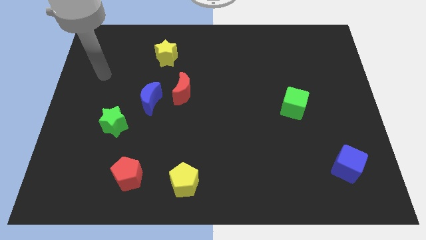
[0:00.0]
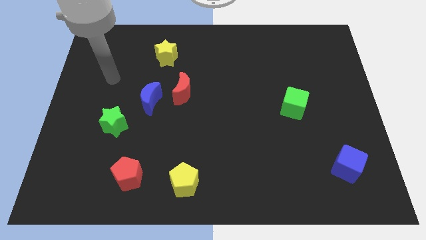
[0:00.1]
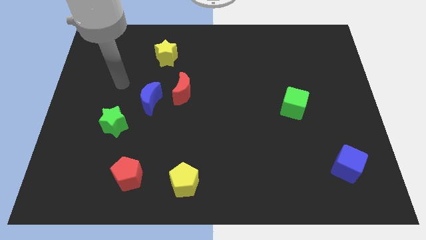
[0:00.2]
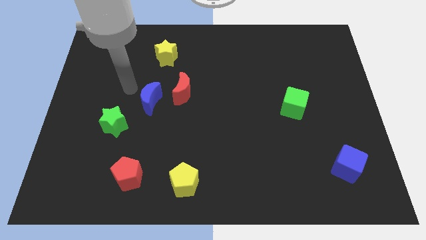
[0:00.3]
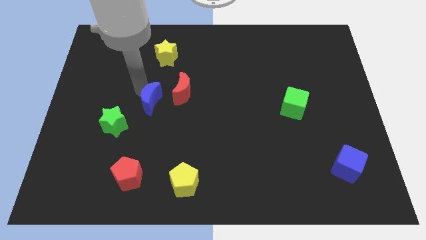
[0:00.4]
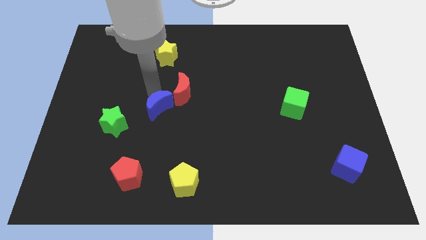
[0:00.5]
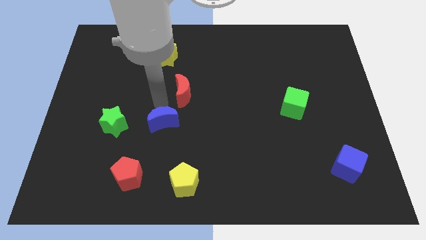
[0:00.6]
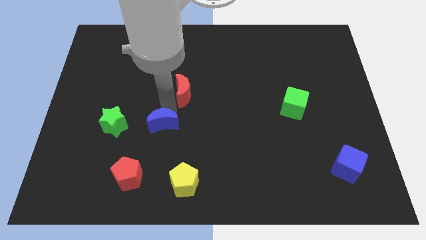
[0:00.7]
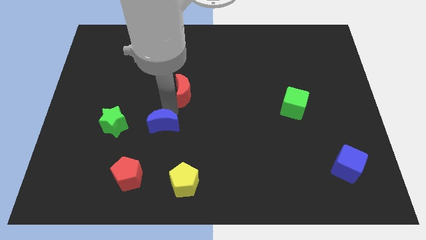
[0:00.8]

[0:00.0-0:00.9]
move the red moon away from the blue moon

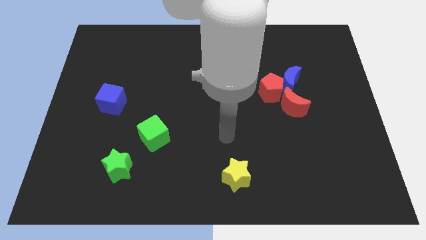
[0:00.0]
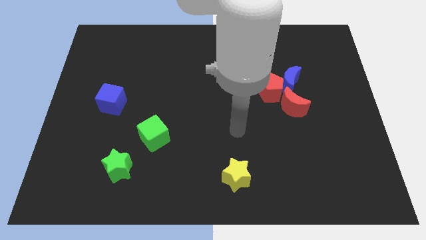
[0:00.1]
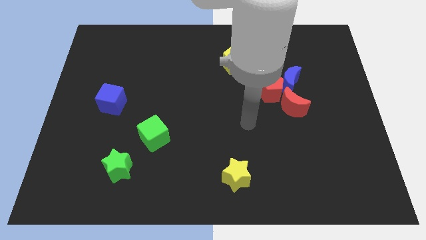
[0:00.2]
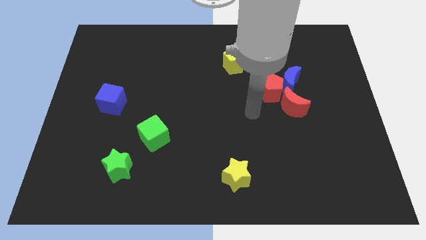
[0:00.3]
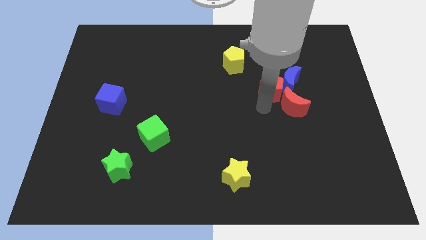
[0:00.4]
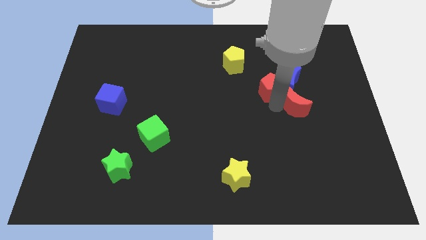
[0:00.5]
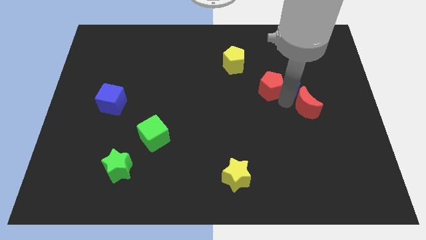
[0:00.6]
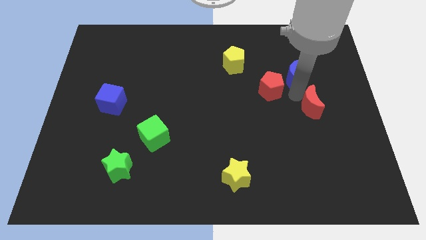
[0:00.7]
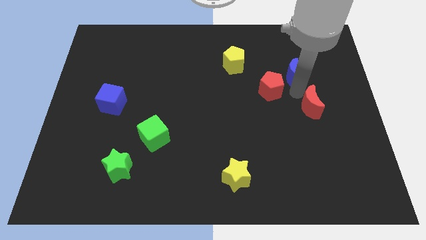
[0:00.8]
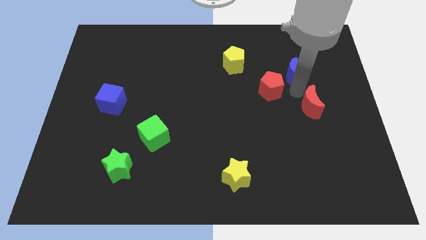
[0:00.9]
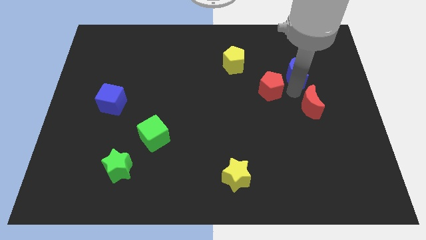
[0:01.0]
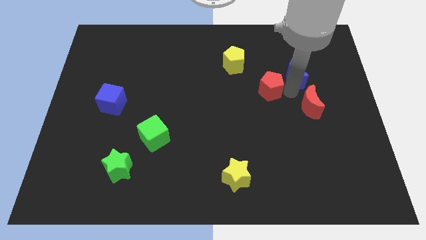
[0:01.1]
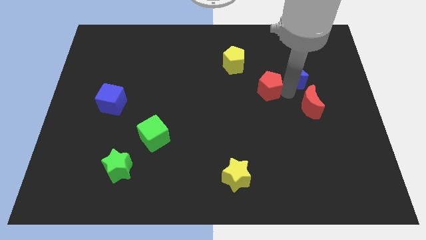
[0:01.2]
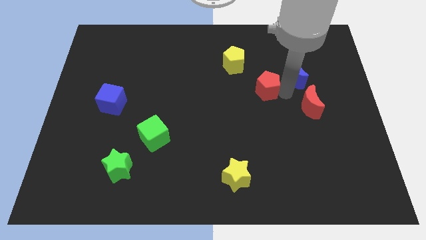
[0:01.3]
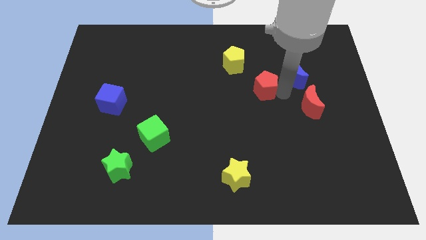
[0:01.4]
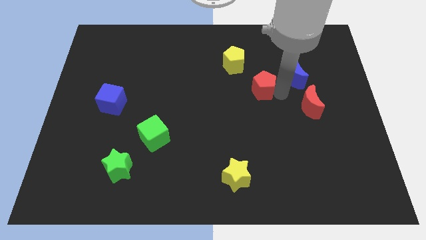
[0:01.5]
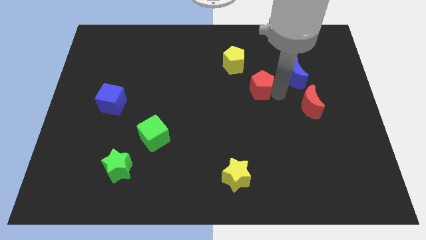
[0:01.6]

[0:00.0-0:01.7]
move the red pentagon away from the blue moon and red moon

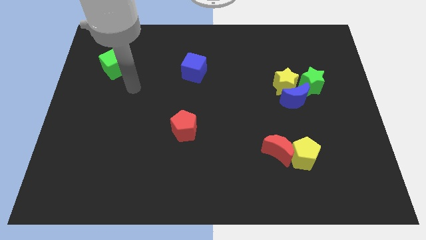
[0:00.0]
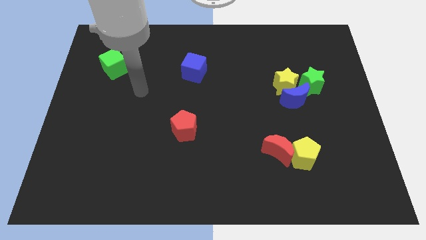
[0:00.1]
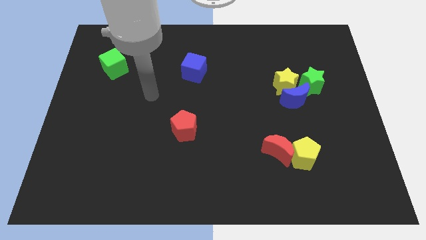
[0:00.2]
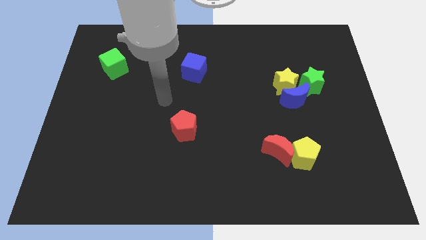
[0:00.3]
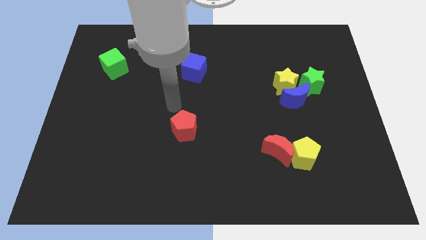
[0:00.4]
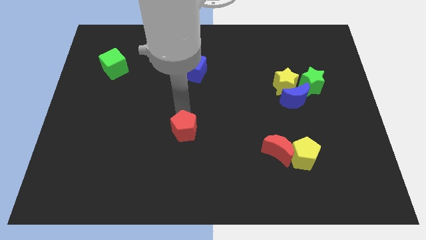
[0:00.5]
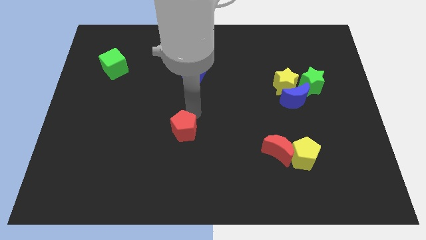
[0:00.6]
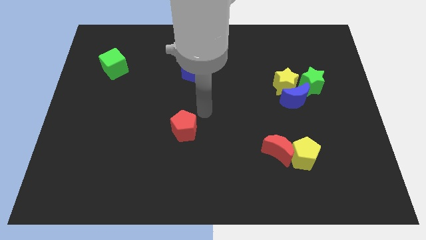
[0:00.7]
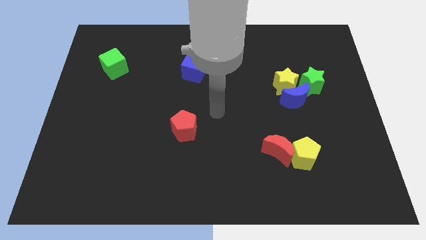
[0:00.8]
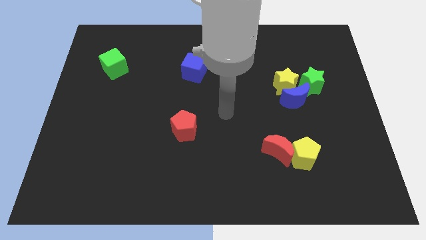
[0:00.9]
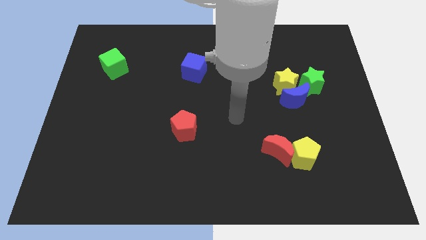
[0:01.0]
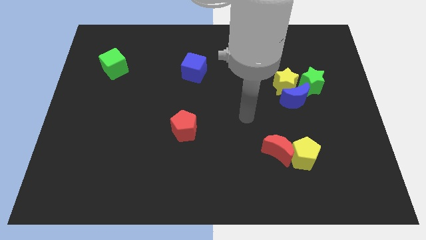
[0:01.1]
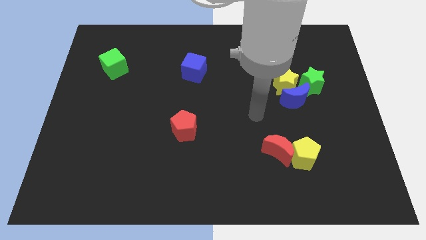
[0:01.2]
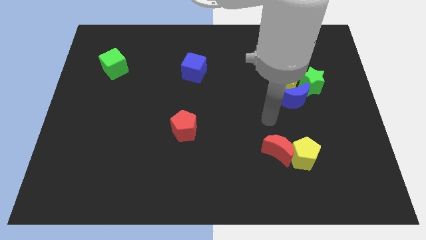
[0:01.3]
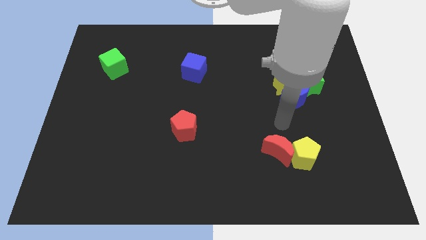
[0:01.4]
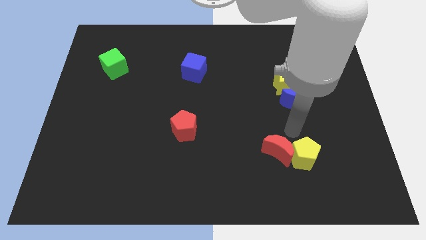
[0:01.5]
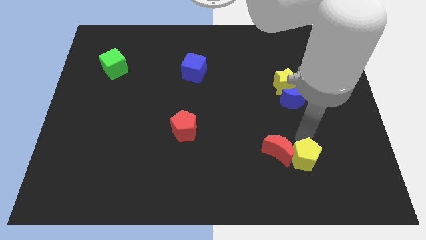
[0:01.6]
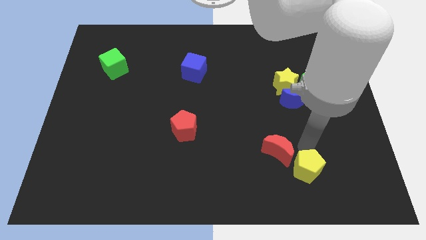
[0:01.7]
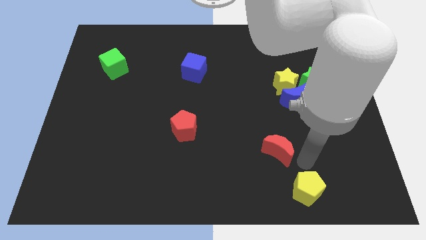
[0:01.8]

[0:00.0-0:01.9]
separate the red moon from the yellow pentagon

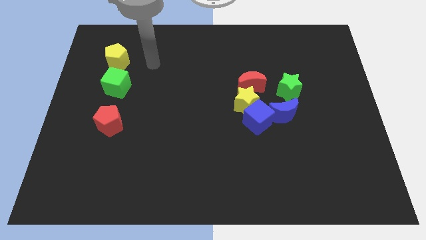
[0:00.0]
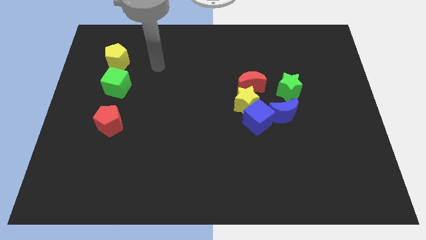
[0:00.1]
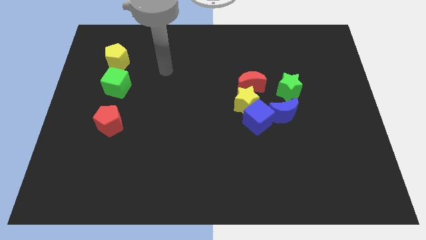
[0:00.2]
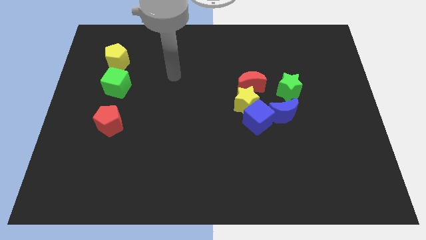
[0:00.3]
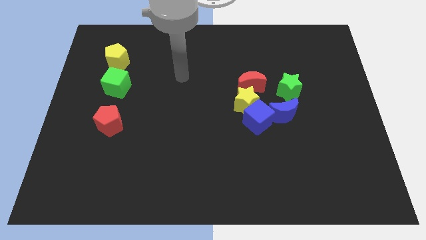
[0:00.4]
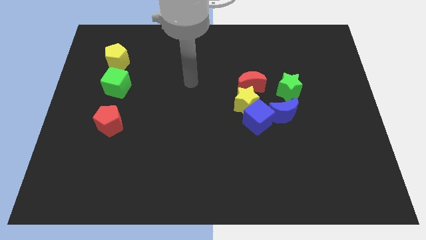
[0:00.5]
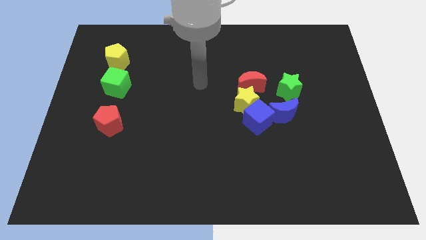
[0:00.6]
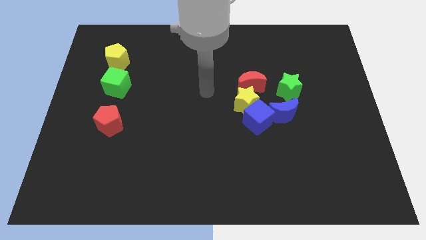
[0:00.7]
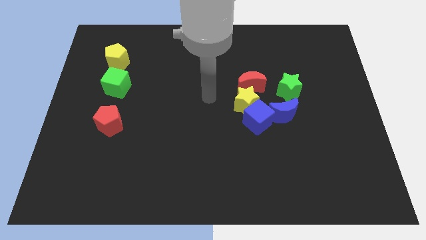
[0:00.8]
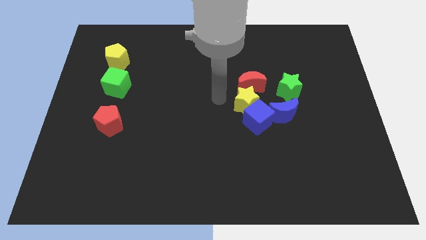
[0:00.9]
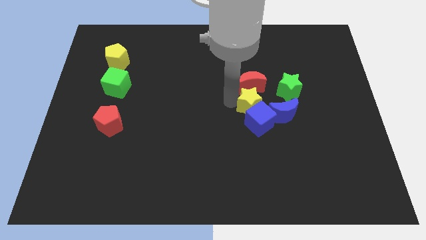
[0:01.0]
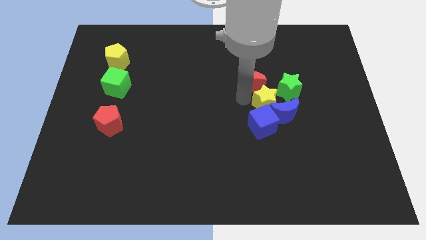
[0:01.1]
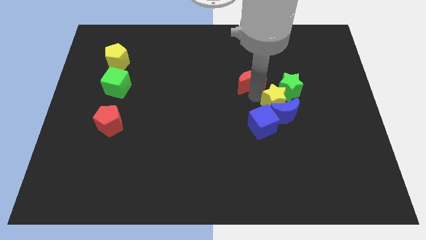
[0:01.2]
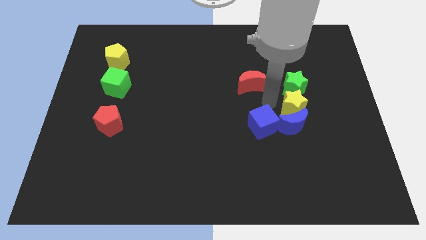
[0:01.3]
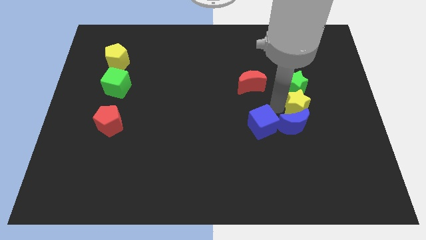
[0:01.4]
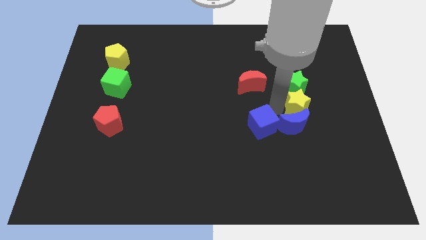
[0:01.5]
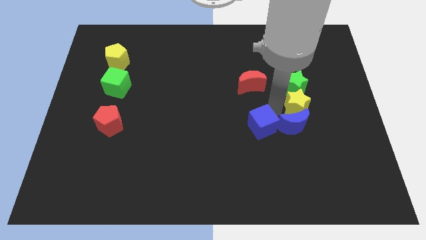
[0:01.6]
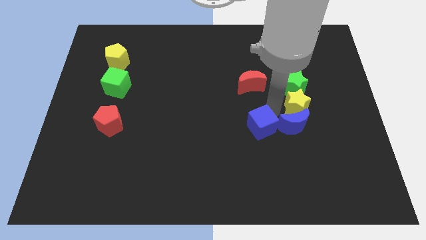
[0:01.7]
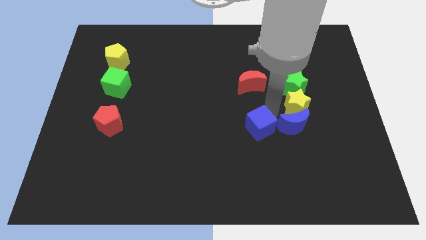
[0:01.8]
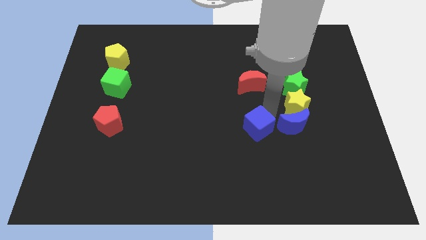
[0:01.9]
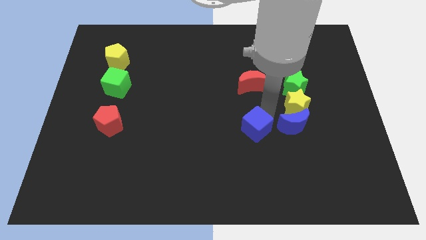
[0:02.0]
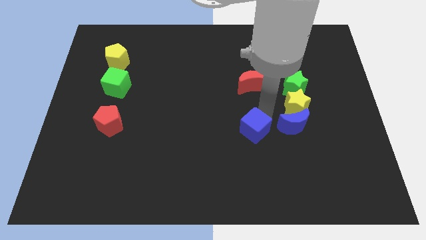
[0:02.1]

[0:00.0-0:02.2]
separate the blue cube from the yellow star and blue moon

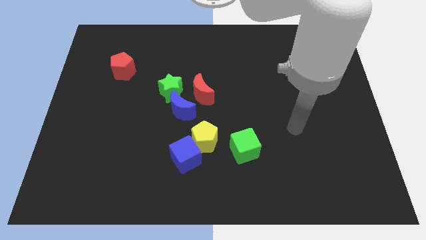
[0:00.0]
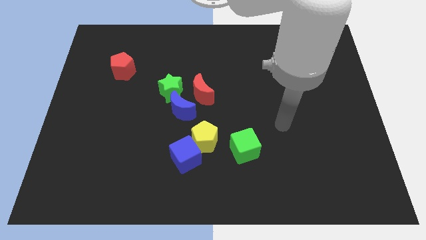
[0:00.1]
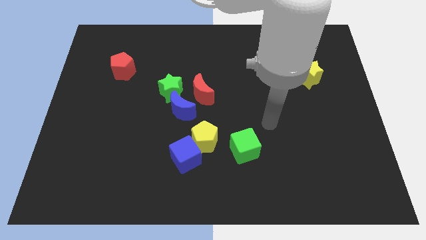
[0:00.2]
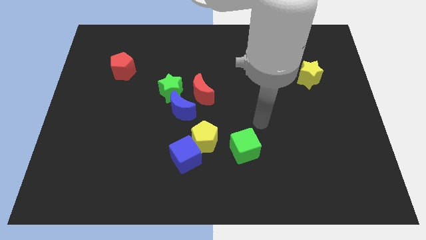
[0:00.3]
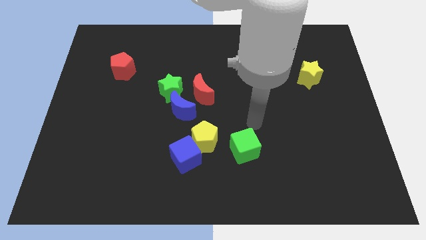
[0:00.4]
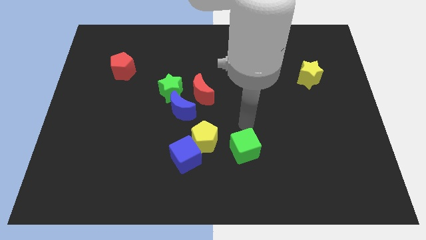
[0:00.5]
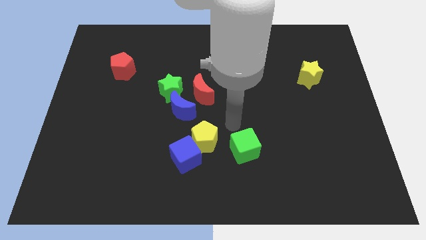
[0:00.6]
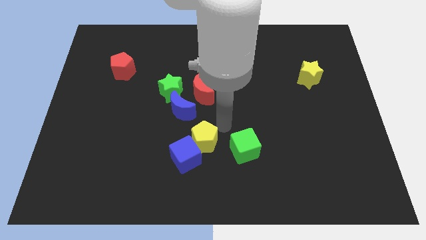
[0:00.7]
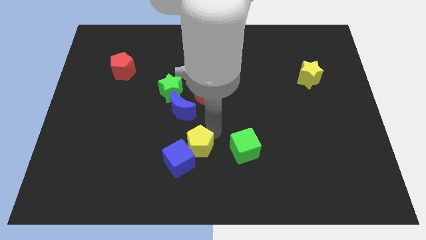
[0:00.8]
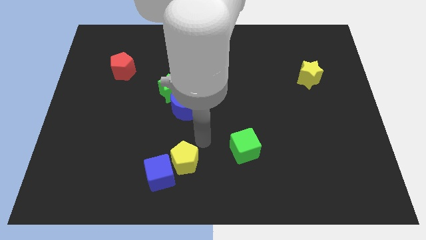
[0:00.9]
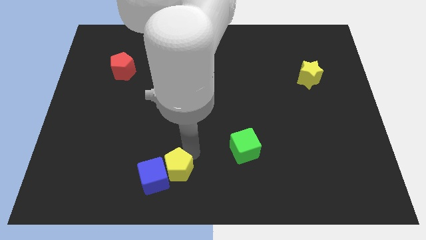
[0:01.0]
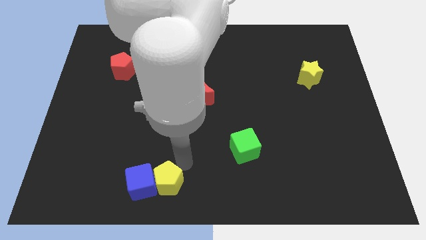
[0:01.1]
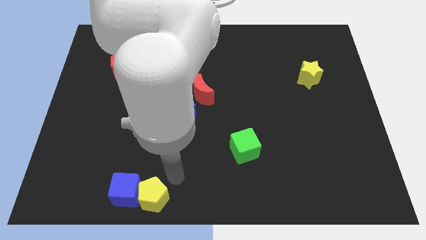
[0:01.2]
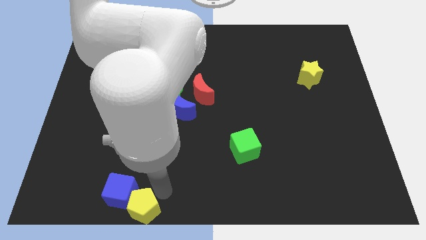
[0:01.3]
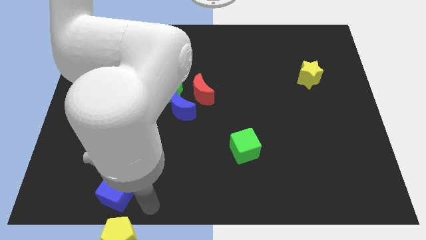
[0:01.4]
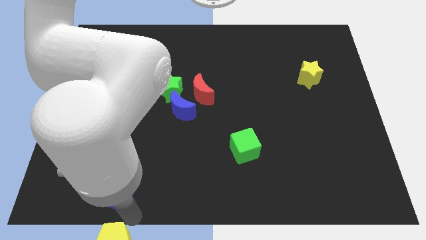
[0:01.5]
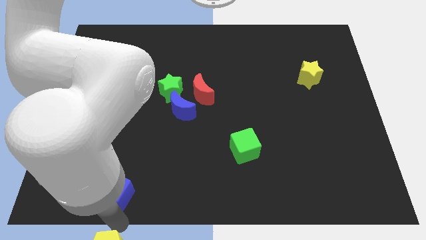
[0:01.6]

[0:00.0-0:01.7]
move the blue cube away from the yellow pentagon

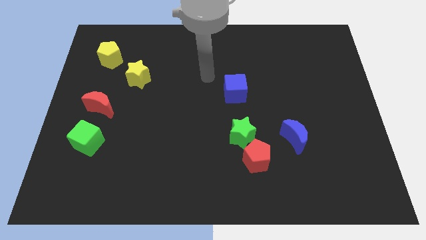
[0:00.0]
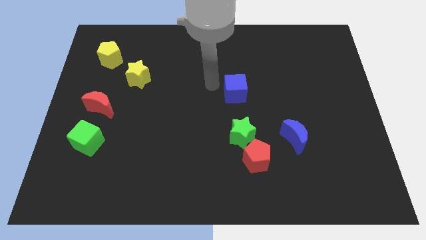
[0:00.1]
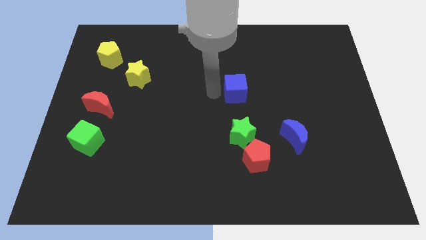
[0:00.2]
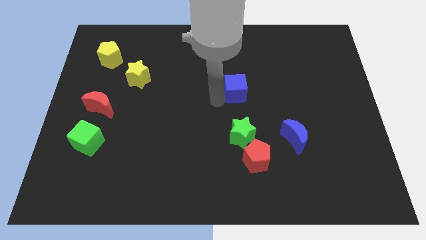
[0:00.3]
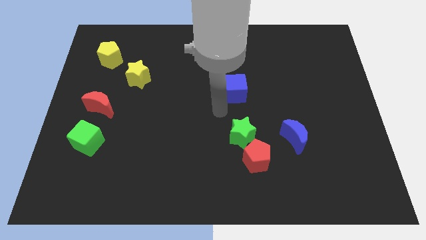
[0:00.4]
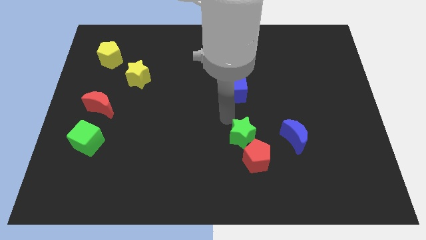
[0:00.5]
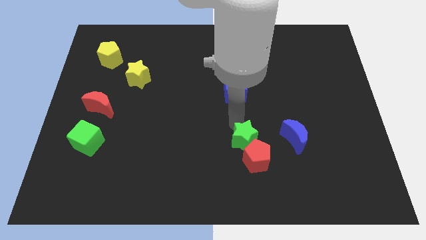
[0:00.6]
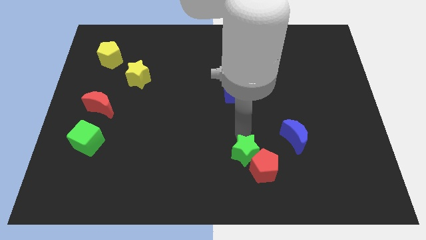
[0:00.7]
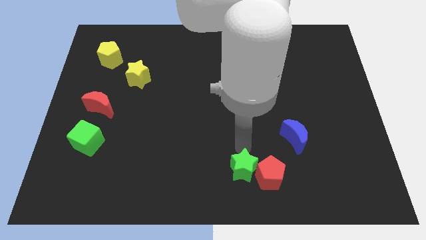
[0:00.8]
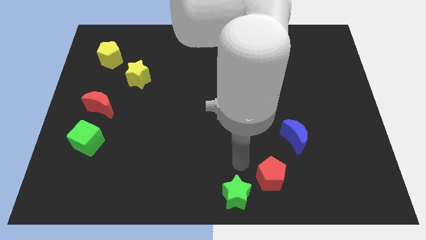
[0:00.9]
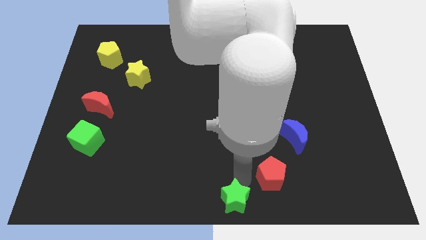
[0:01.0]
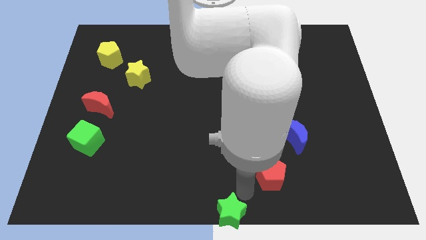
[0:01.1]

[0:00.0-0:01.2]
pull the red pentagon apart from the green star
